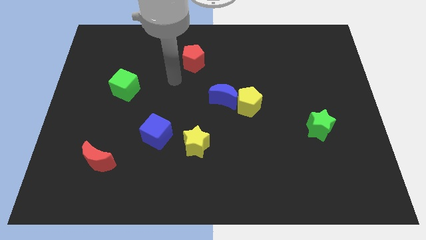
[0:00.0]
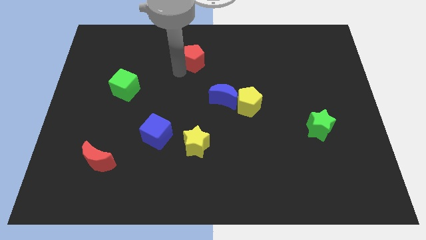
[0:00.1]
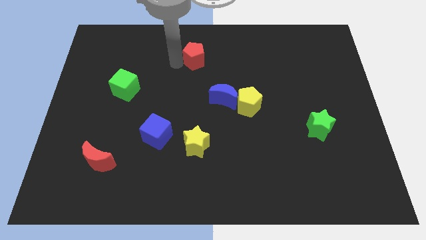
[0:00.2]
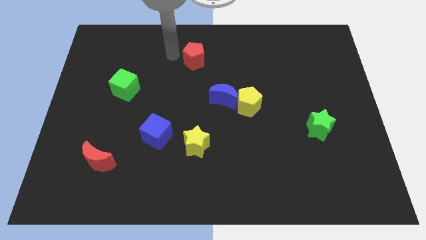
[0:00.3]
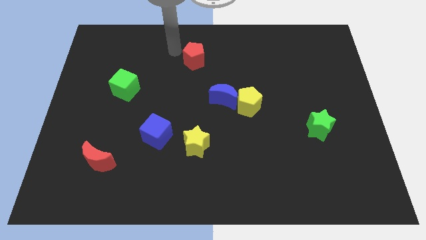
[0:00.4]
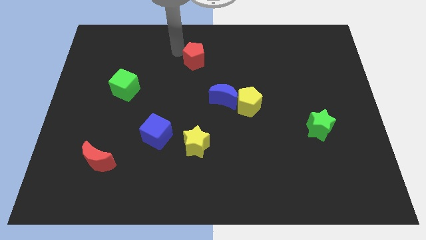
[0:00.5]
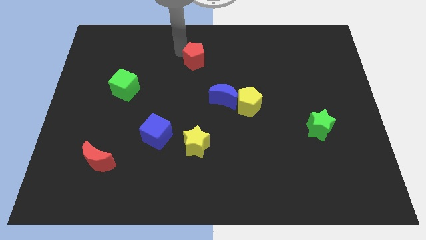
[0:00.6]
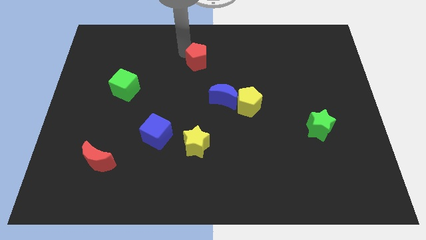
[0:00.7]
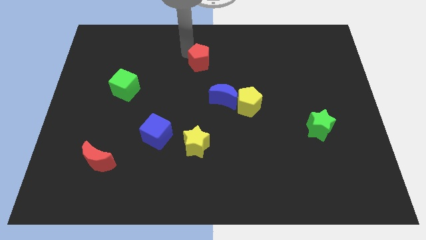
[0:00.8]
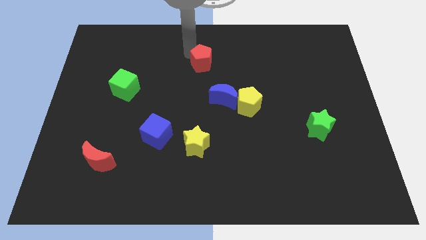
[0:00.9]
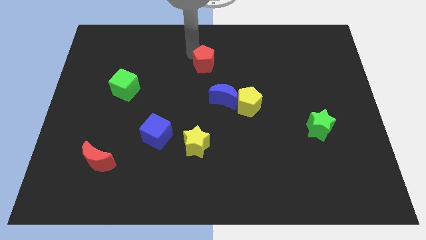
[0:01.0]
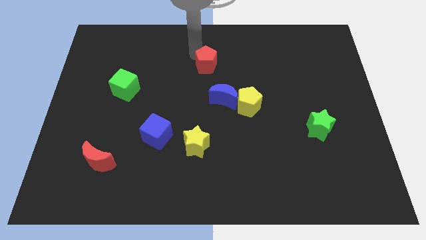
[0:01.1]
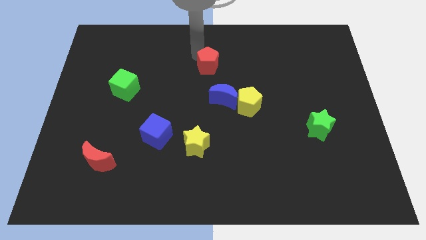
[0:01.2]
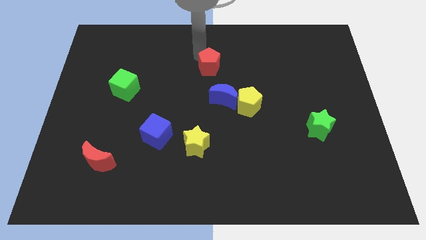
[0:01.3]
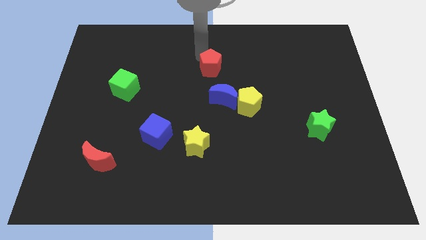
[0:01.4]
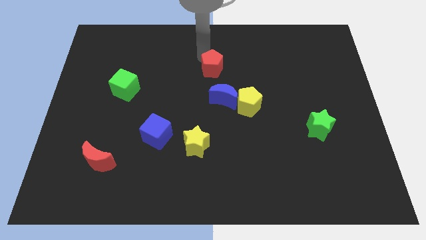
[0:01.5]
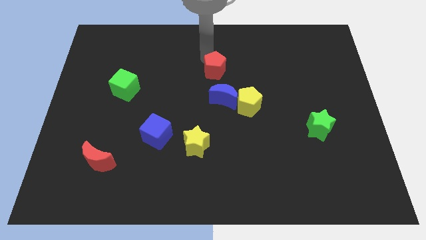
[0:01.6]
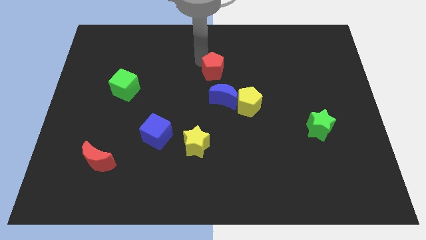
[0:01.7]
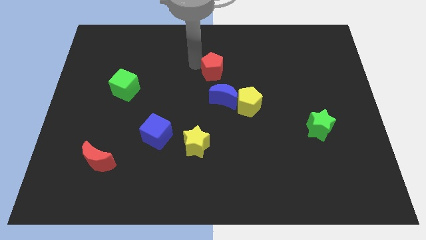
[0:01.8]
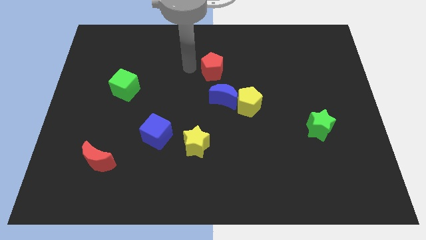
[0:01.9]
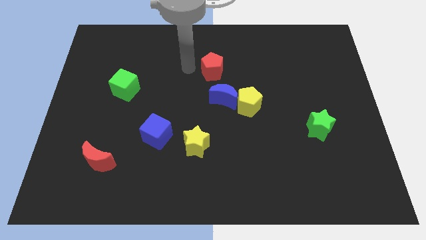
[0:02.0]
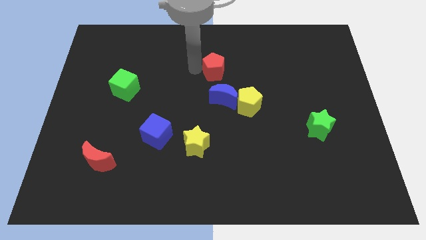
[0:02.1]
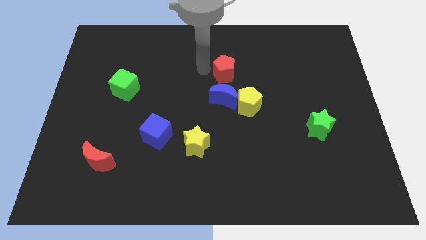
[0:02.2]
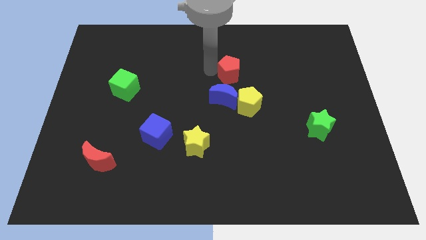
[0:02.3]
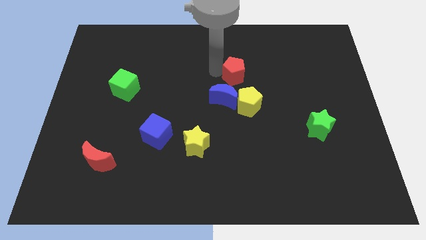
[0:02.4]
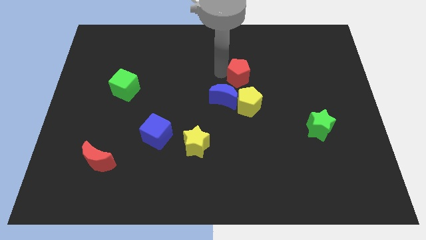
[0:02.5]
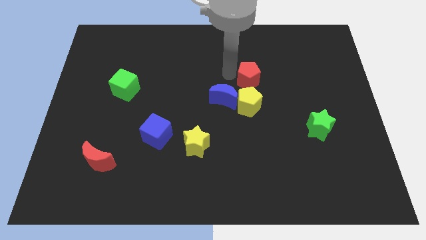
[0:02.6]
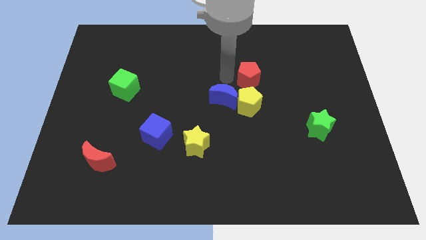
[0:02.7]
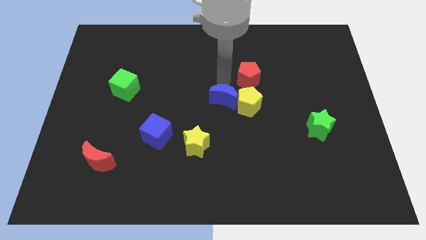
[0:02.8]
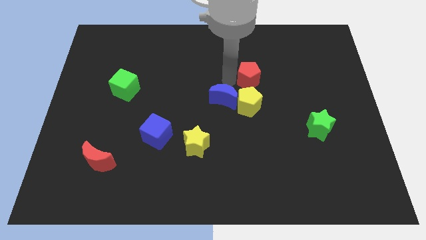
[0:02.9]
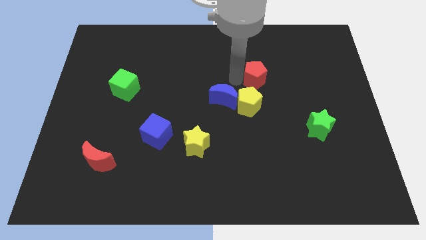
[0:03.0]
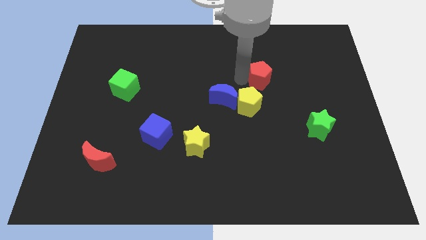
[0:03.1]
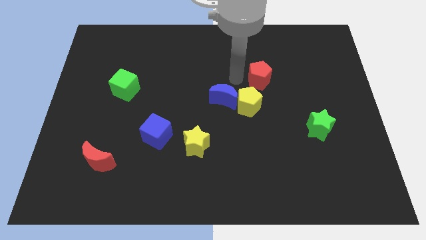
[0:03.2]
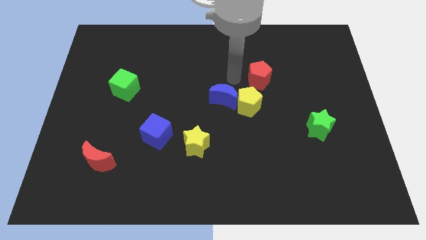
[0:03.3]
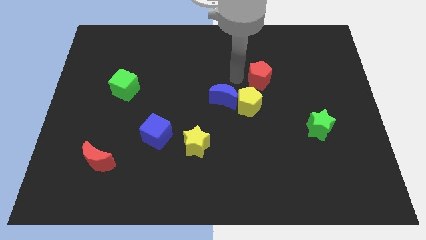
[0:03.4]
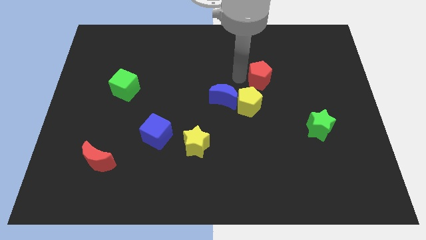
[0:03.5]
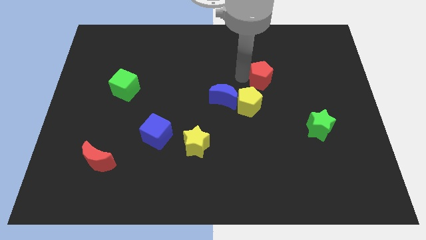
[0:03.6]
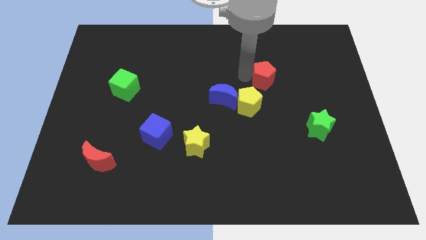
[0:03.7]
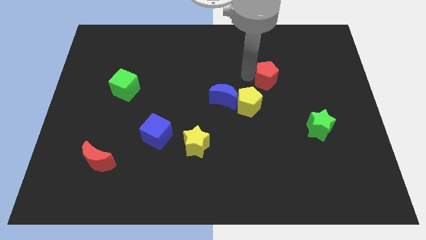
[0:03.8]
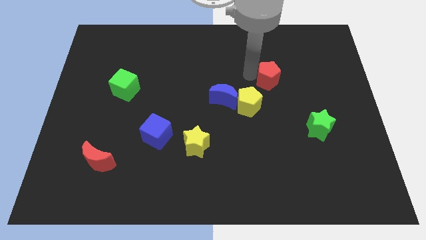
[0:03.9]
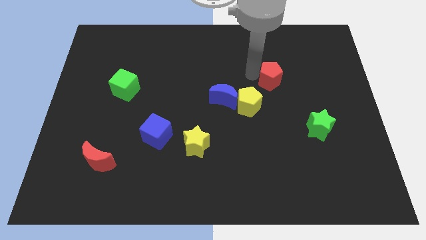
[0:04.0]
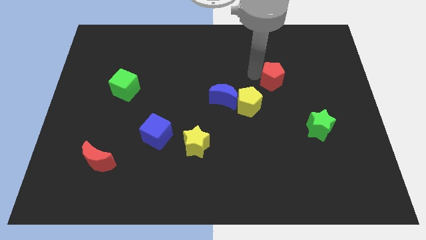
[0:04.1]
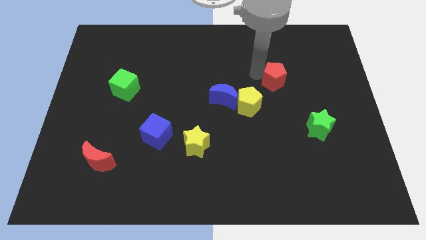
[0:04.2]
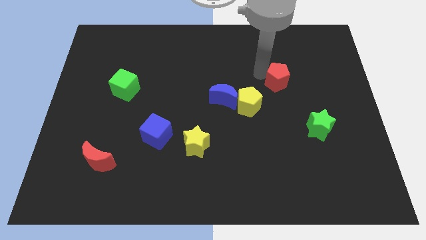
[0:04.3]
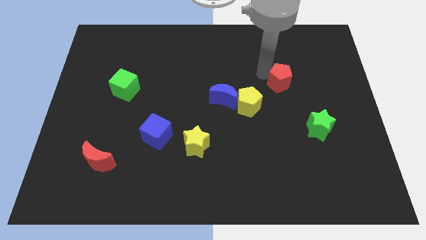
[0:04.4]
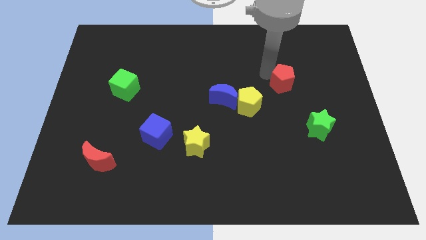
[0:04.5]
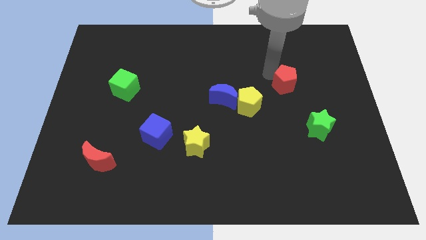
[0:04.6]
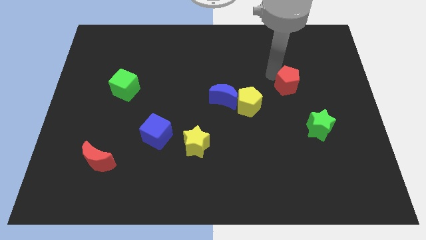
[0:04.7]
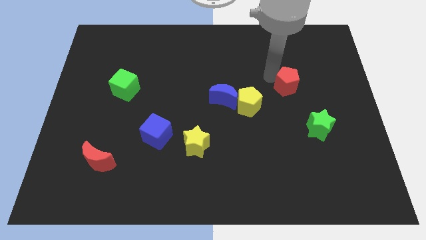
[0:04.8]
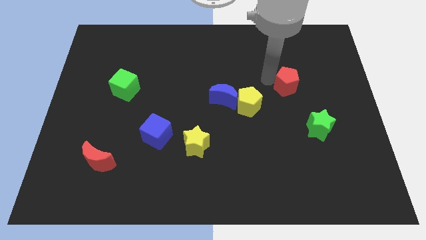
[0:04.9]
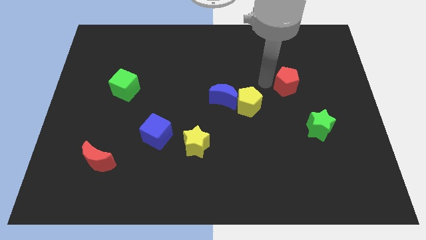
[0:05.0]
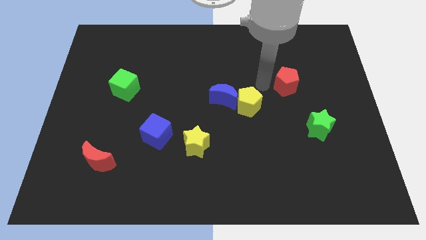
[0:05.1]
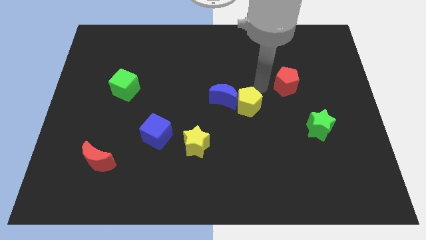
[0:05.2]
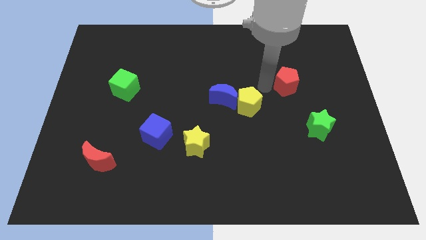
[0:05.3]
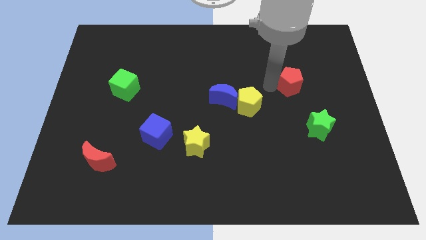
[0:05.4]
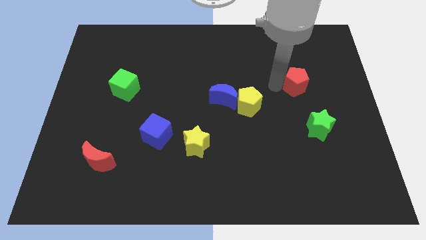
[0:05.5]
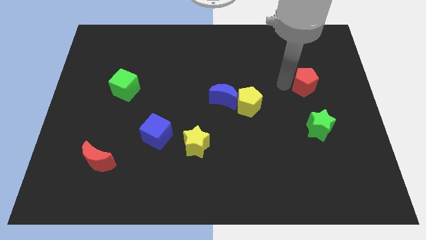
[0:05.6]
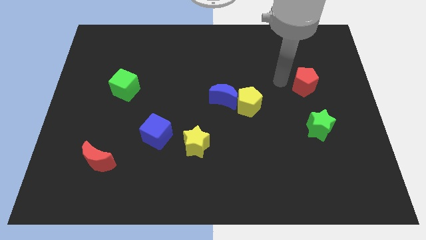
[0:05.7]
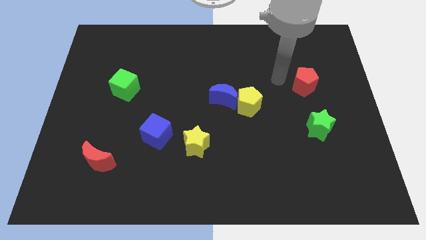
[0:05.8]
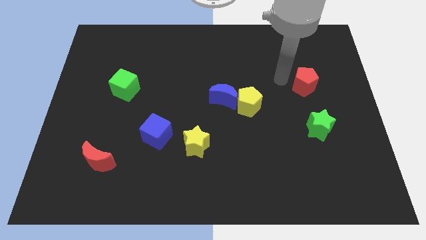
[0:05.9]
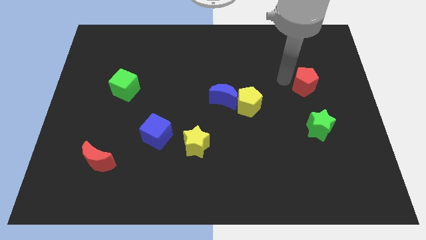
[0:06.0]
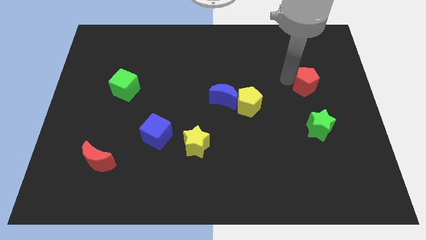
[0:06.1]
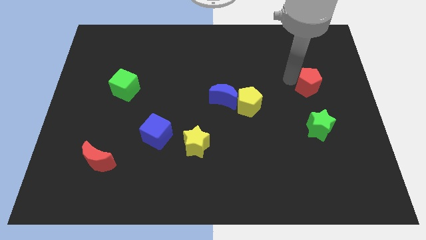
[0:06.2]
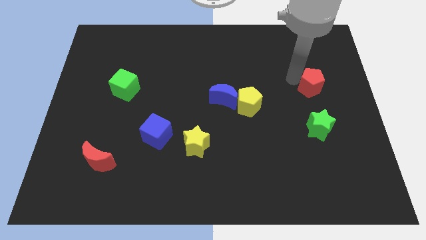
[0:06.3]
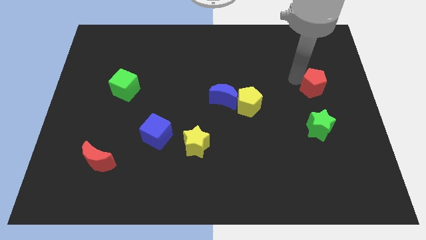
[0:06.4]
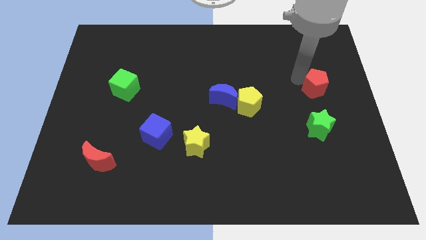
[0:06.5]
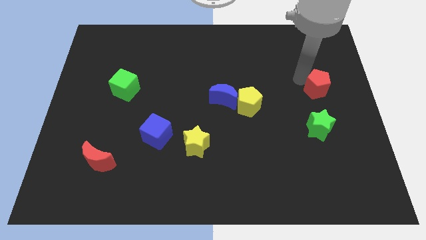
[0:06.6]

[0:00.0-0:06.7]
push the red pentagon to the center right
